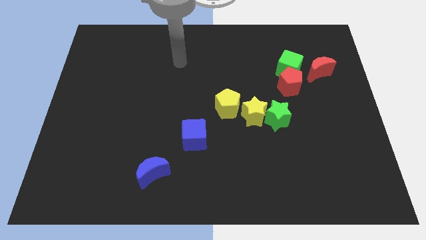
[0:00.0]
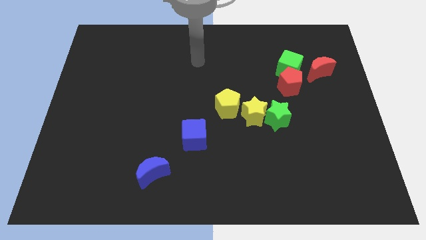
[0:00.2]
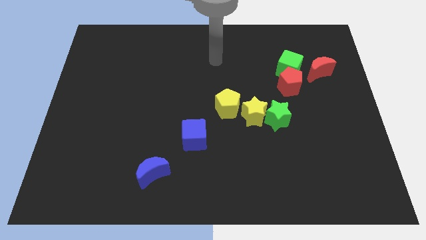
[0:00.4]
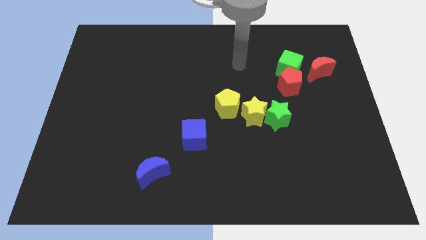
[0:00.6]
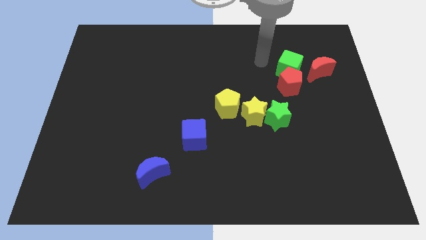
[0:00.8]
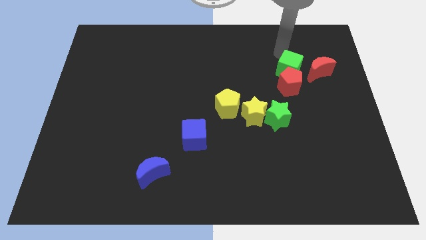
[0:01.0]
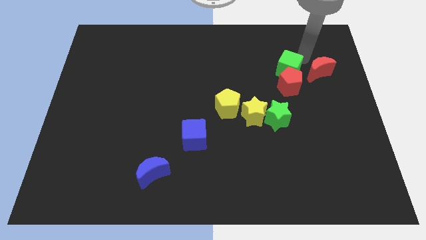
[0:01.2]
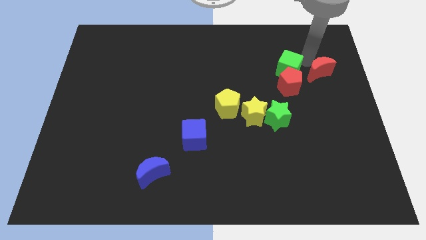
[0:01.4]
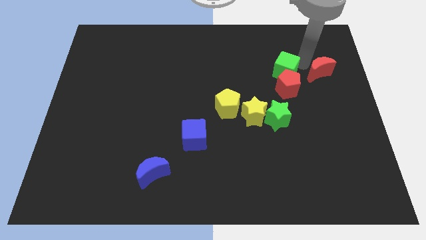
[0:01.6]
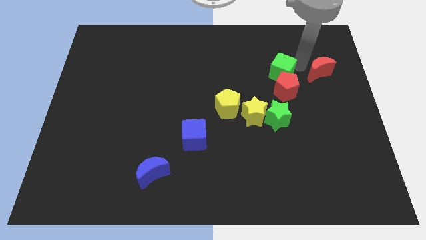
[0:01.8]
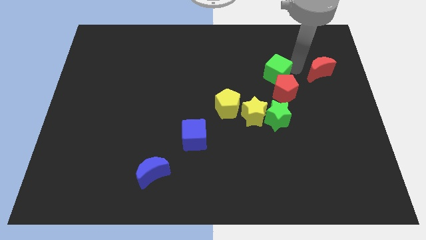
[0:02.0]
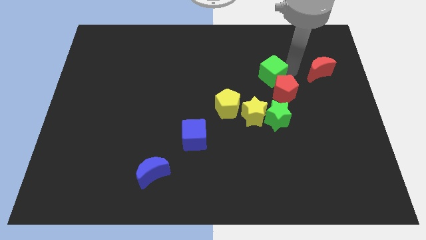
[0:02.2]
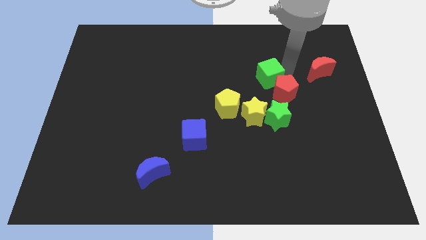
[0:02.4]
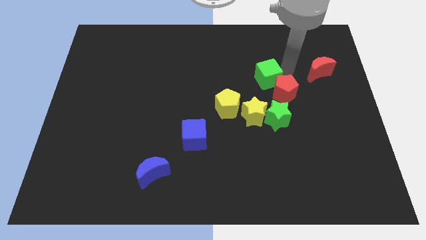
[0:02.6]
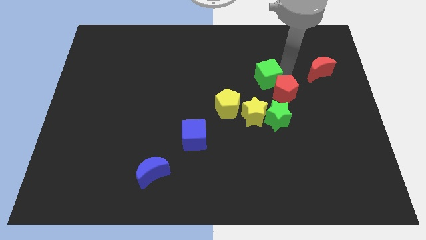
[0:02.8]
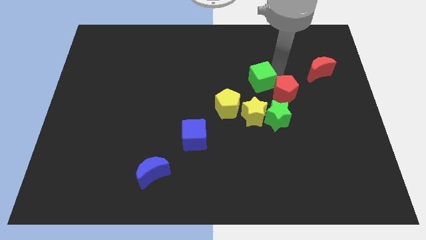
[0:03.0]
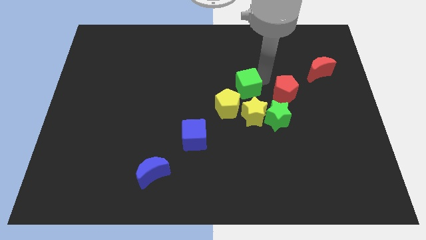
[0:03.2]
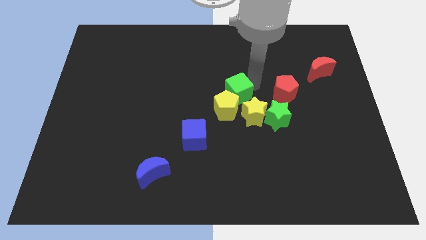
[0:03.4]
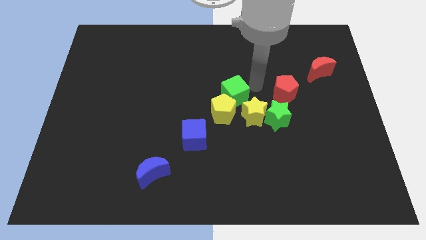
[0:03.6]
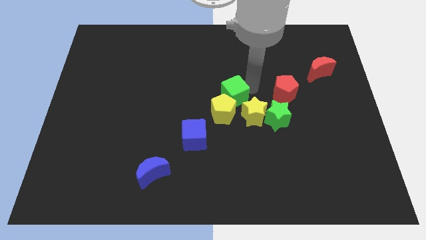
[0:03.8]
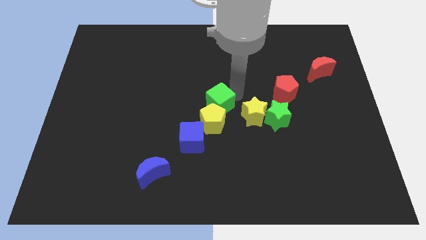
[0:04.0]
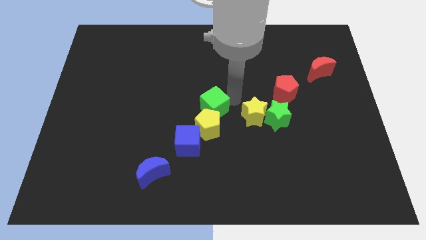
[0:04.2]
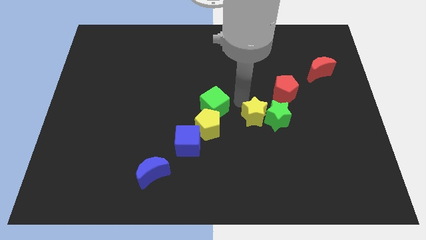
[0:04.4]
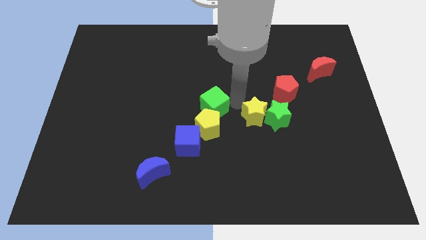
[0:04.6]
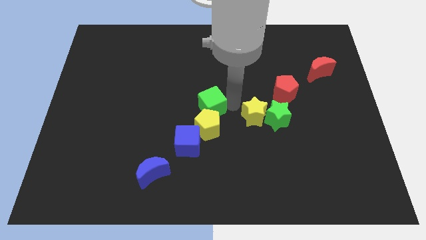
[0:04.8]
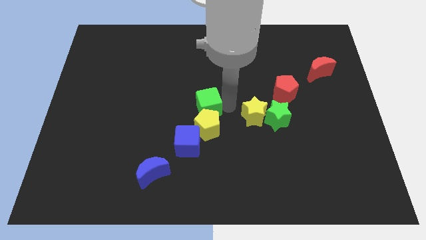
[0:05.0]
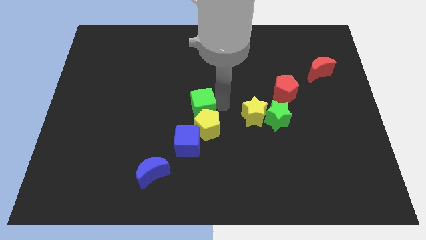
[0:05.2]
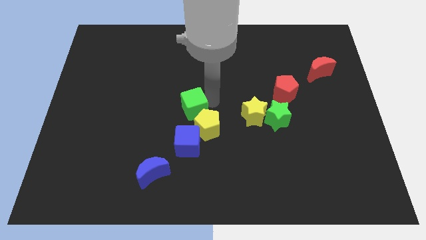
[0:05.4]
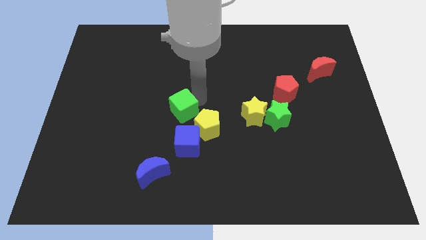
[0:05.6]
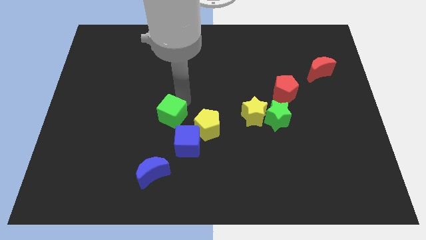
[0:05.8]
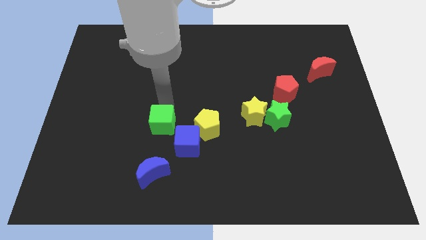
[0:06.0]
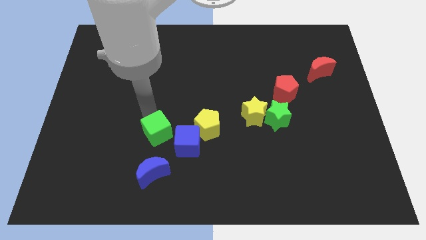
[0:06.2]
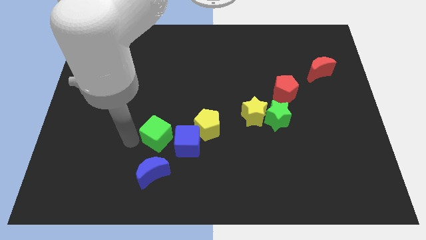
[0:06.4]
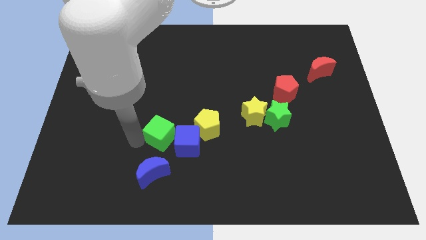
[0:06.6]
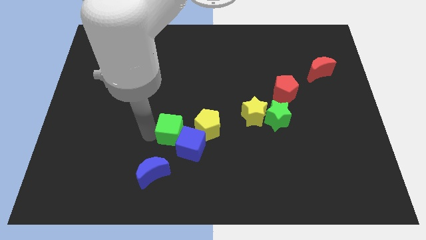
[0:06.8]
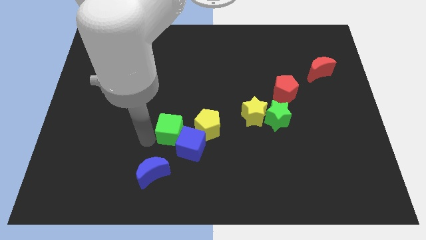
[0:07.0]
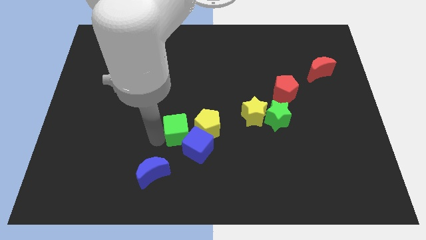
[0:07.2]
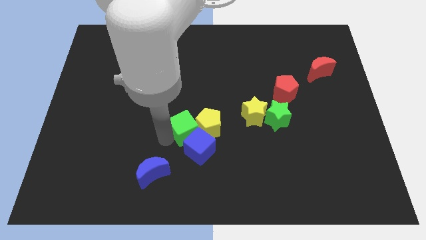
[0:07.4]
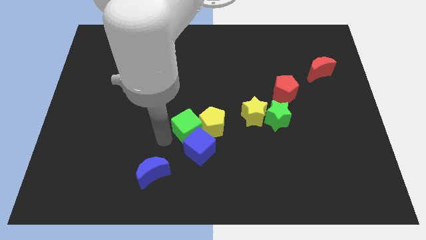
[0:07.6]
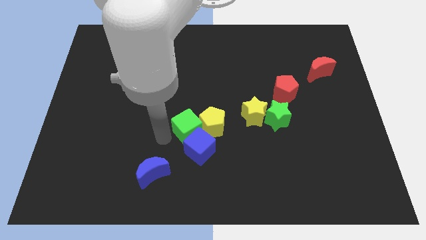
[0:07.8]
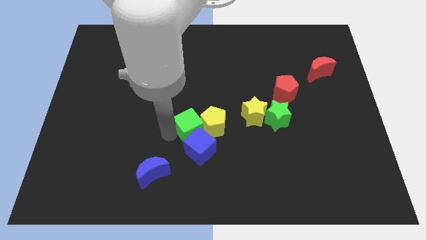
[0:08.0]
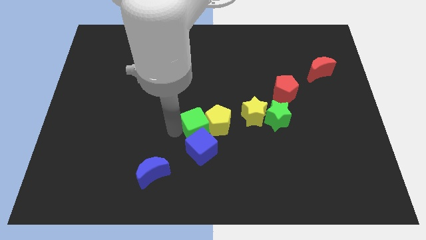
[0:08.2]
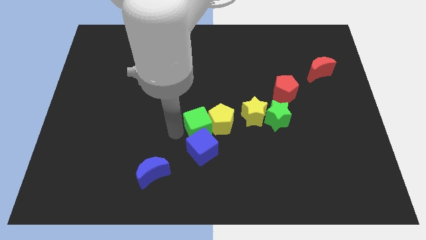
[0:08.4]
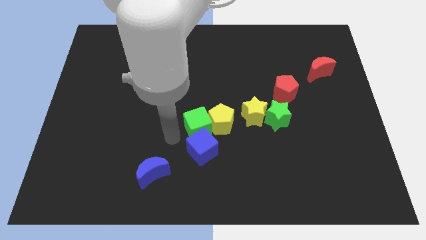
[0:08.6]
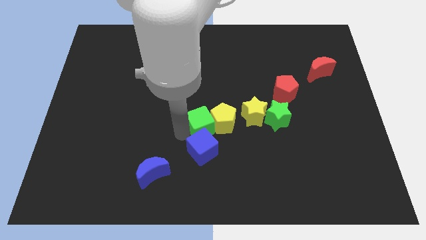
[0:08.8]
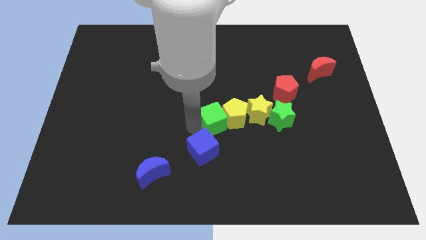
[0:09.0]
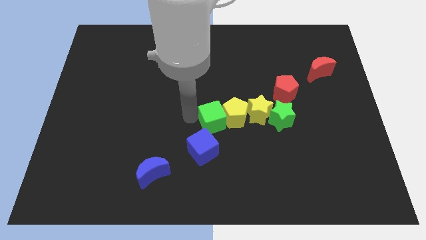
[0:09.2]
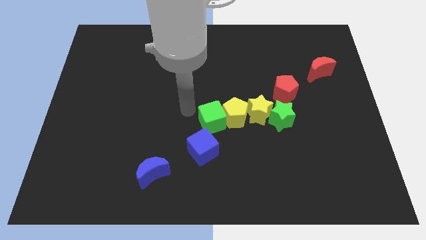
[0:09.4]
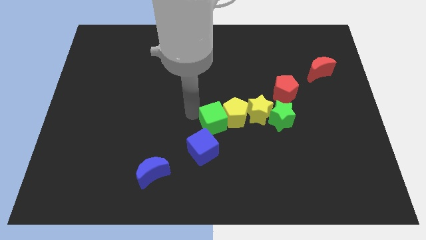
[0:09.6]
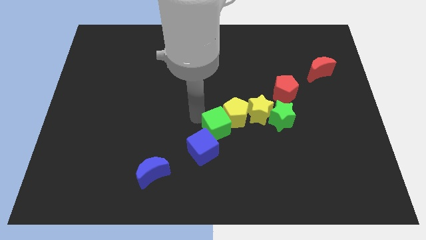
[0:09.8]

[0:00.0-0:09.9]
slide the green cube diagonally down and to the left of the yellow star

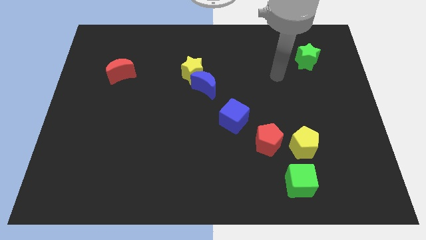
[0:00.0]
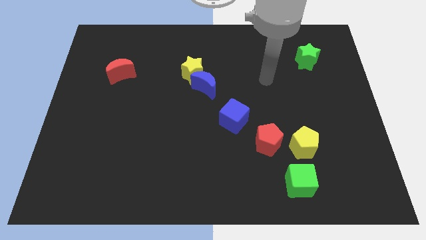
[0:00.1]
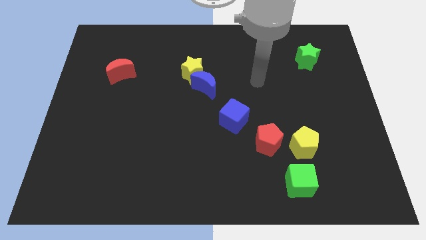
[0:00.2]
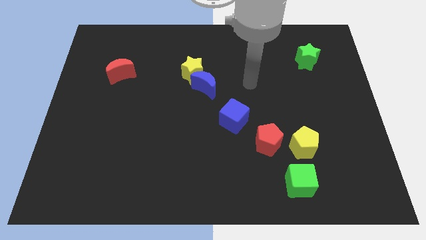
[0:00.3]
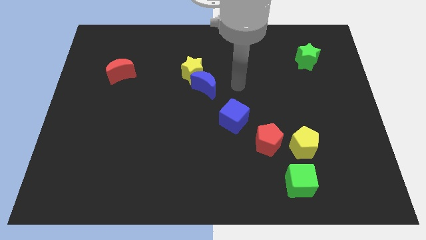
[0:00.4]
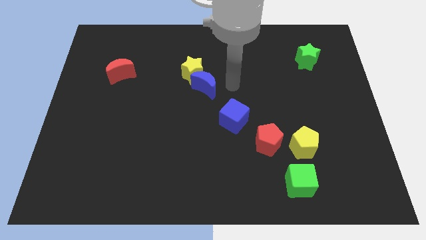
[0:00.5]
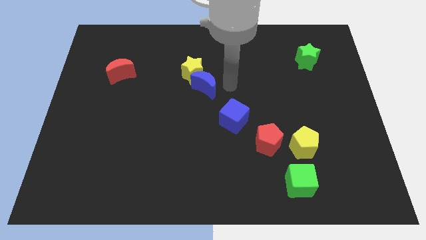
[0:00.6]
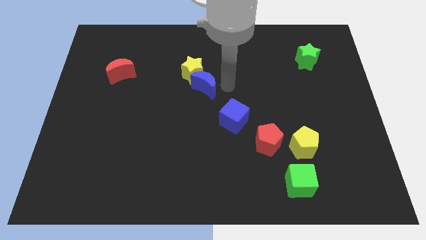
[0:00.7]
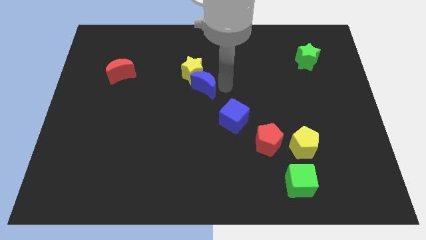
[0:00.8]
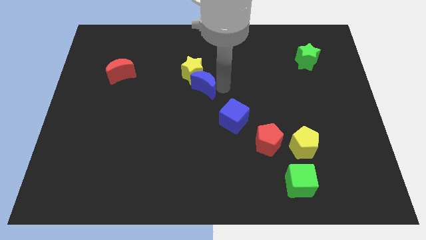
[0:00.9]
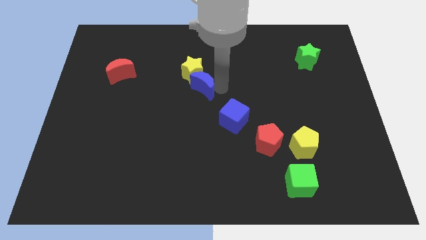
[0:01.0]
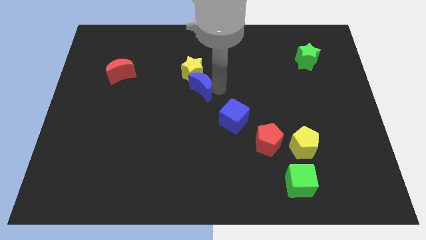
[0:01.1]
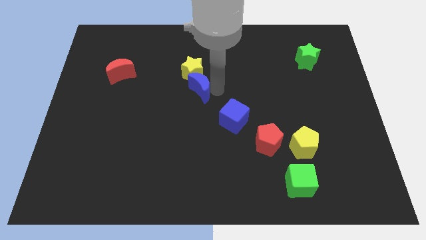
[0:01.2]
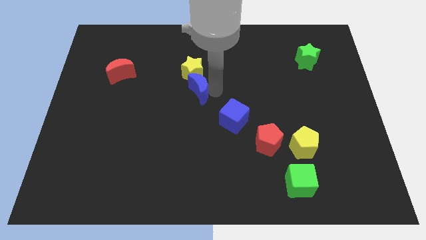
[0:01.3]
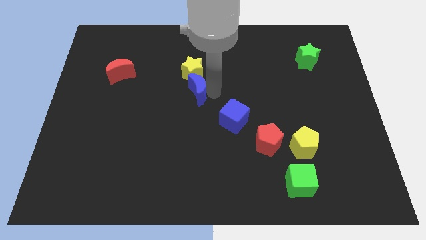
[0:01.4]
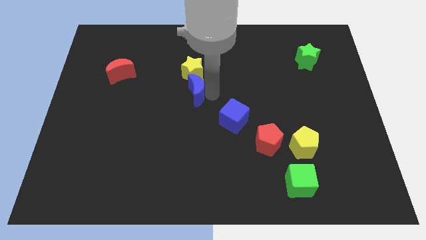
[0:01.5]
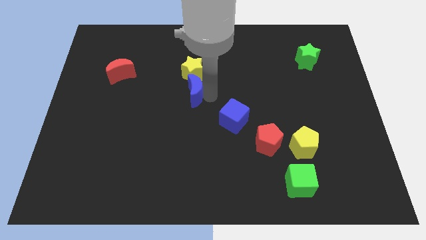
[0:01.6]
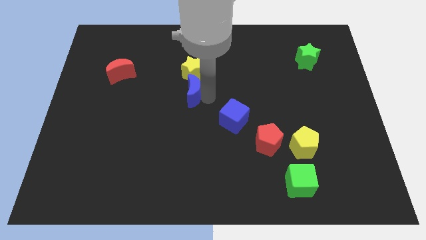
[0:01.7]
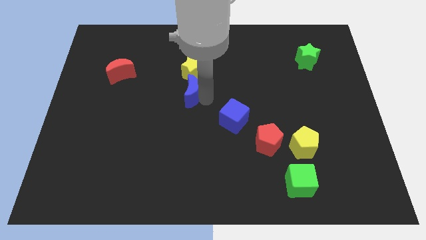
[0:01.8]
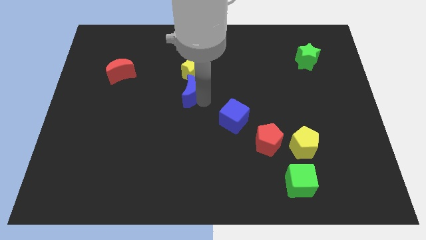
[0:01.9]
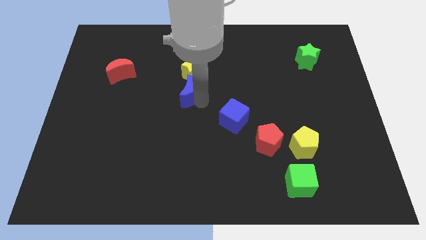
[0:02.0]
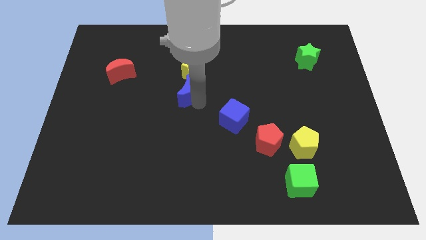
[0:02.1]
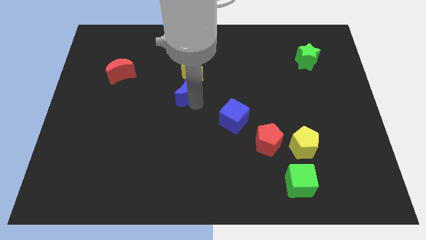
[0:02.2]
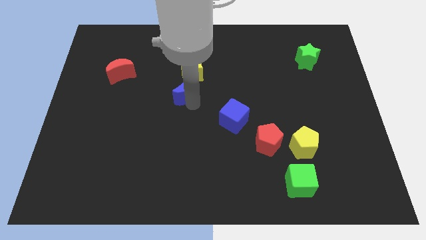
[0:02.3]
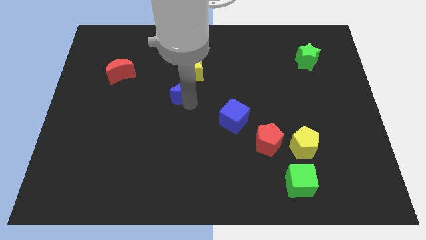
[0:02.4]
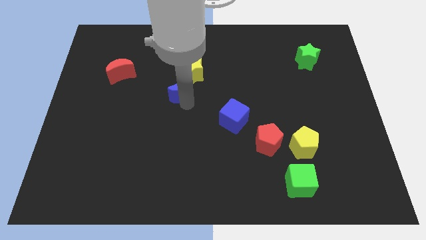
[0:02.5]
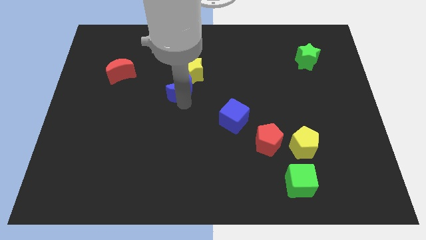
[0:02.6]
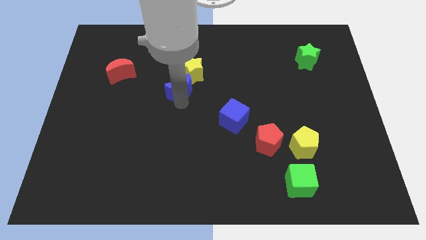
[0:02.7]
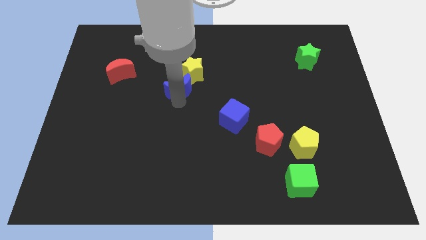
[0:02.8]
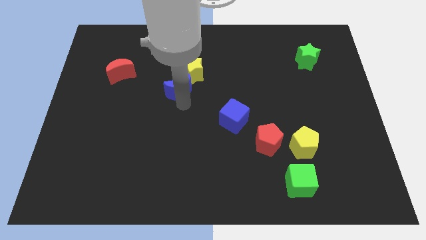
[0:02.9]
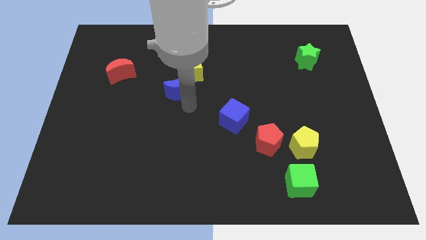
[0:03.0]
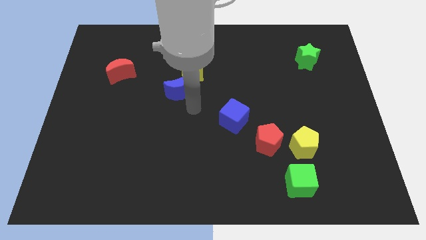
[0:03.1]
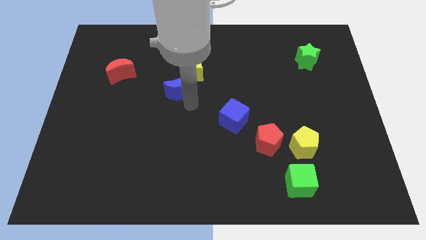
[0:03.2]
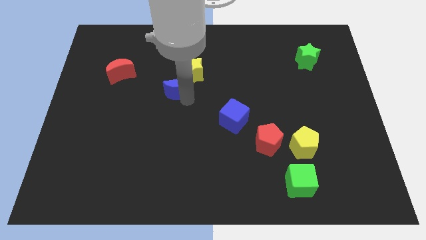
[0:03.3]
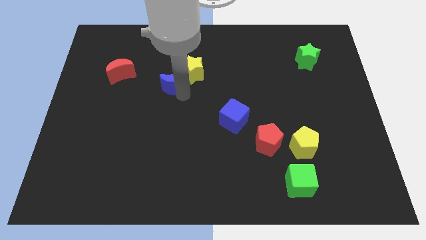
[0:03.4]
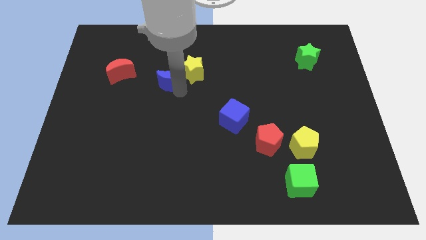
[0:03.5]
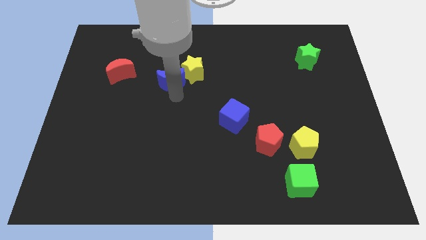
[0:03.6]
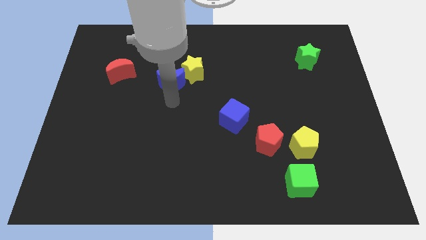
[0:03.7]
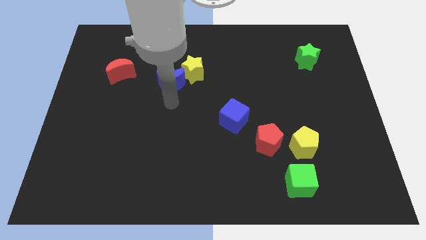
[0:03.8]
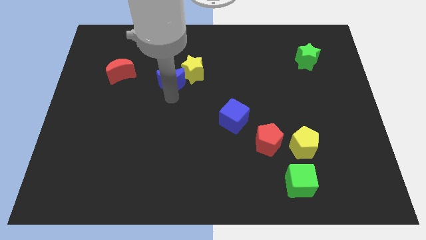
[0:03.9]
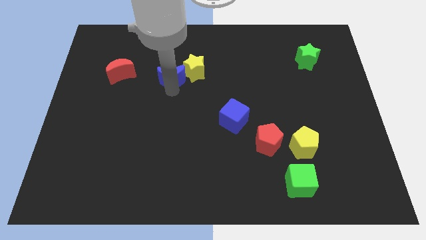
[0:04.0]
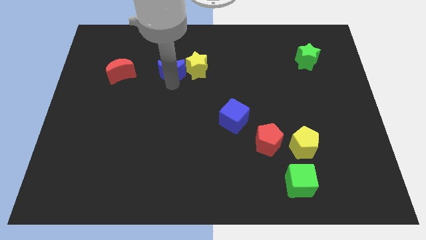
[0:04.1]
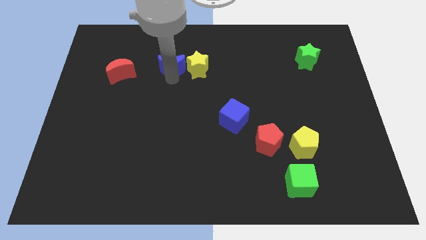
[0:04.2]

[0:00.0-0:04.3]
put the blue moon to the top left of the yellow star
